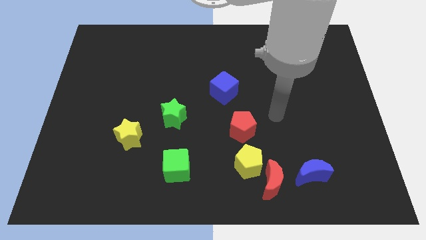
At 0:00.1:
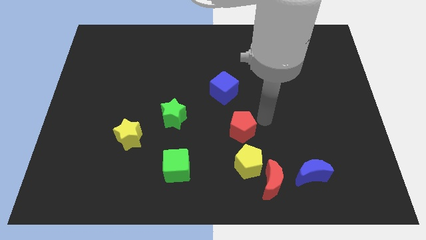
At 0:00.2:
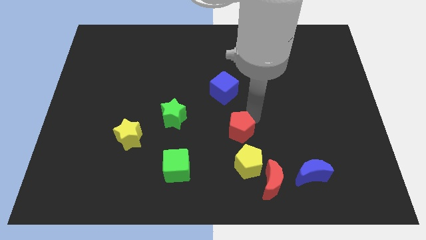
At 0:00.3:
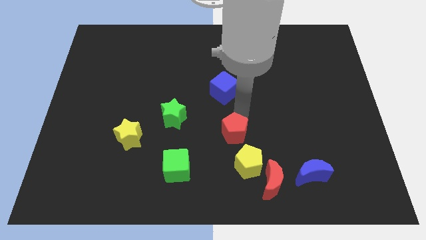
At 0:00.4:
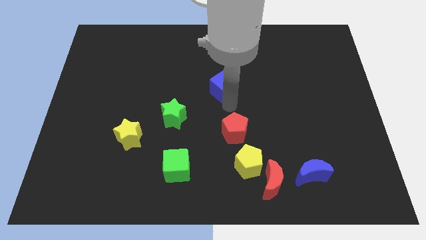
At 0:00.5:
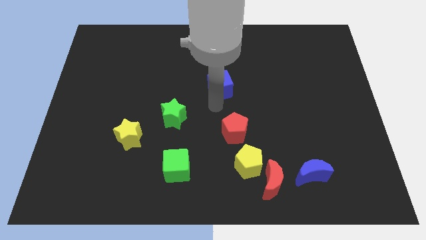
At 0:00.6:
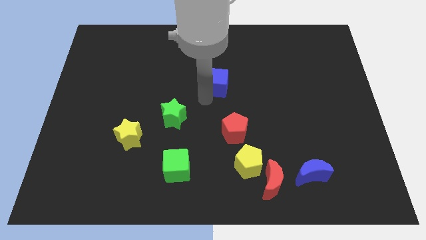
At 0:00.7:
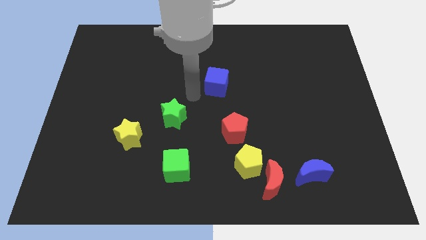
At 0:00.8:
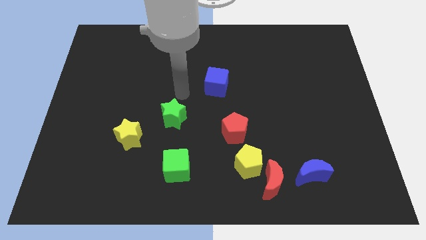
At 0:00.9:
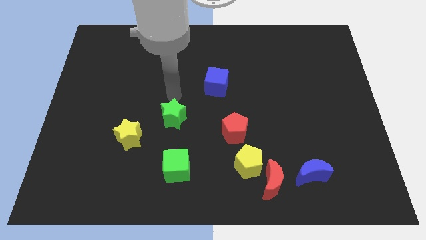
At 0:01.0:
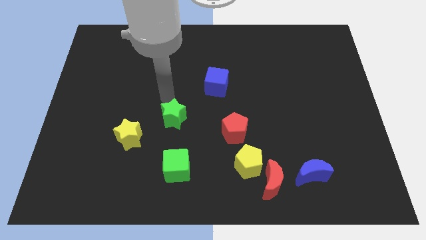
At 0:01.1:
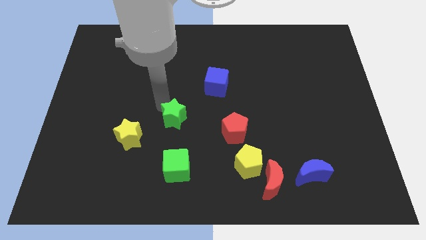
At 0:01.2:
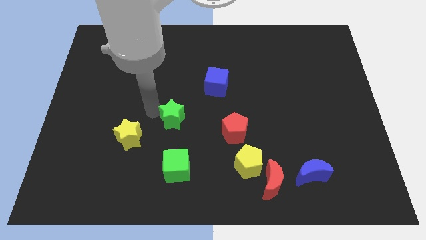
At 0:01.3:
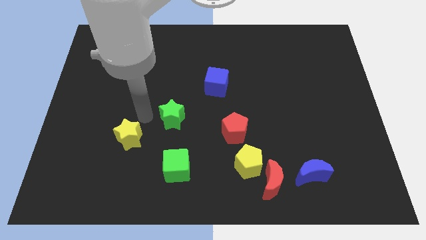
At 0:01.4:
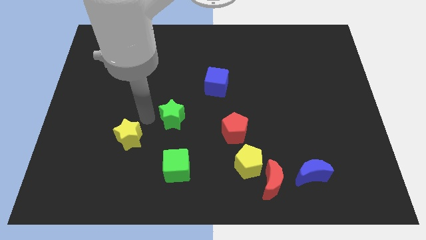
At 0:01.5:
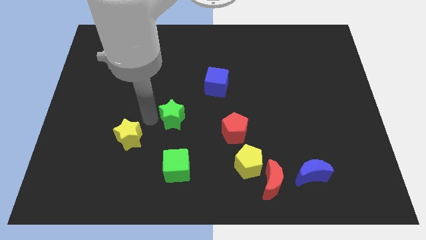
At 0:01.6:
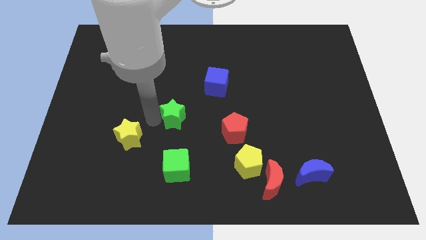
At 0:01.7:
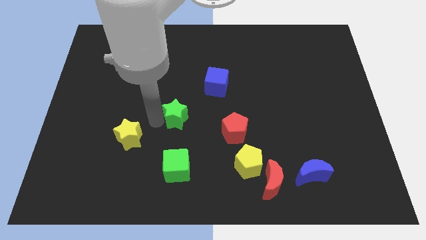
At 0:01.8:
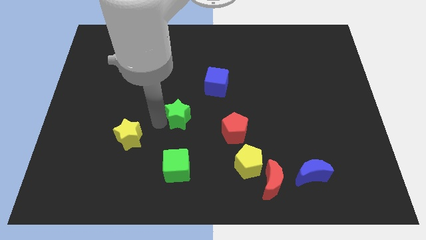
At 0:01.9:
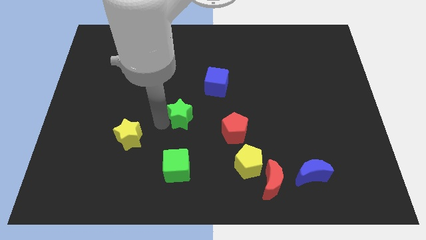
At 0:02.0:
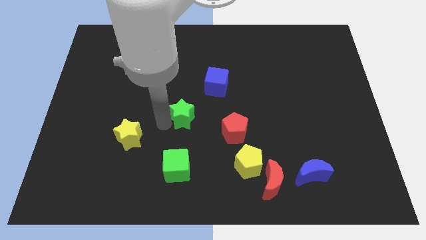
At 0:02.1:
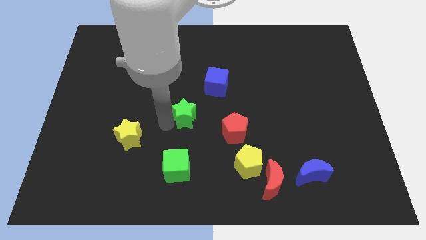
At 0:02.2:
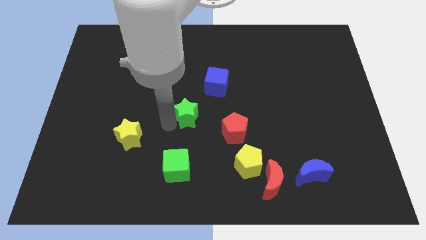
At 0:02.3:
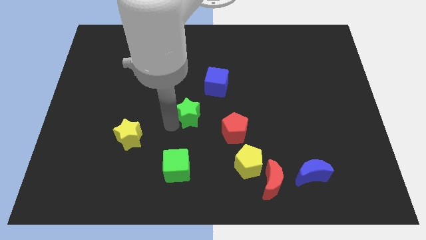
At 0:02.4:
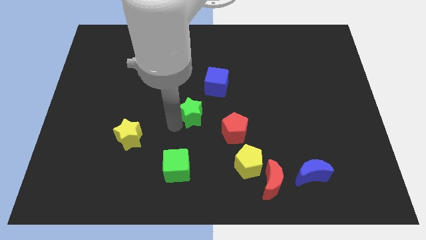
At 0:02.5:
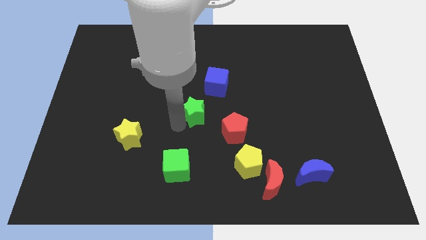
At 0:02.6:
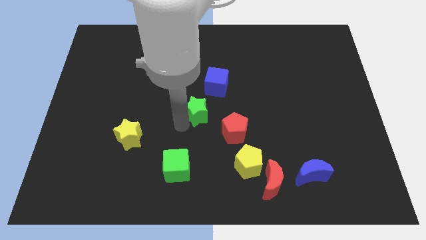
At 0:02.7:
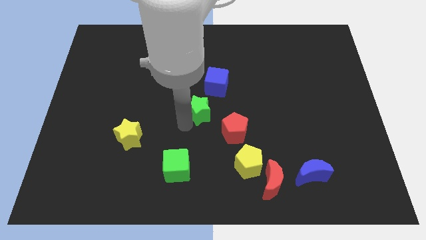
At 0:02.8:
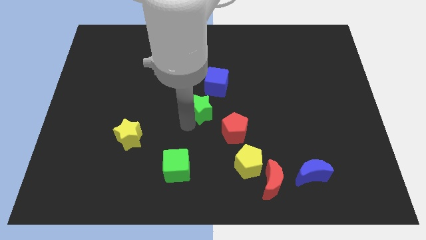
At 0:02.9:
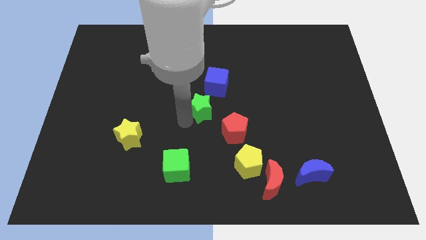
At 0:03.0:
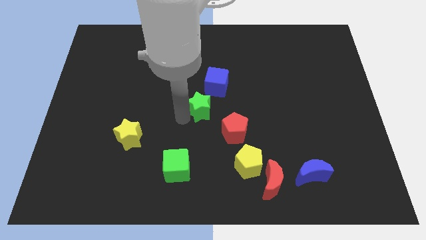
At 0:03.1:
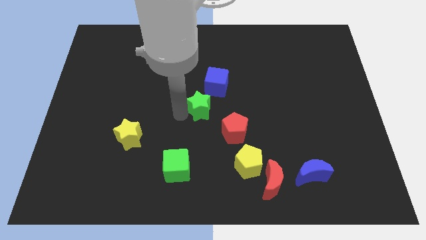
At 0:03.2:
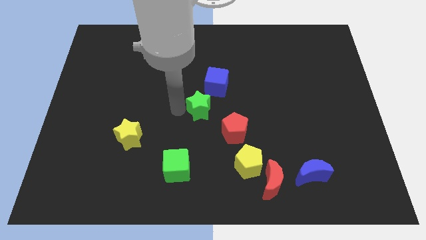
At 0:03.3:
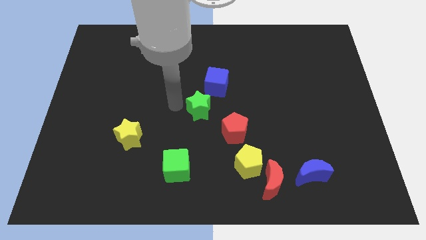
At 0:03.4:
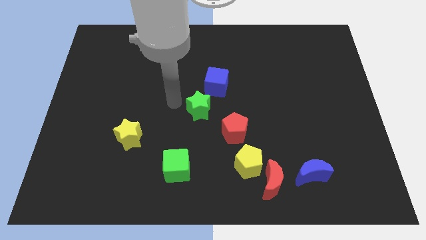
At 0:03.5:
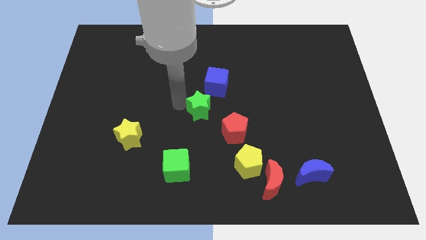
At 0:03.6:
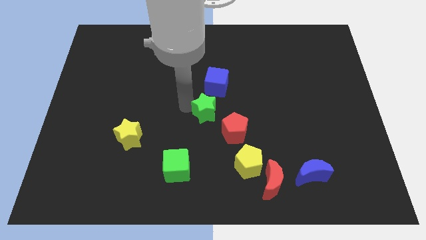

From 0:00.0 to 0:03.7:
push the green star to the right a bit

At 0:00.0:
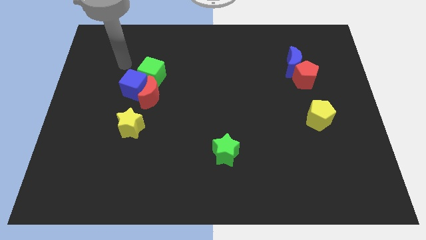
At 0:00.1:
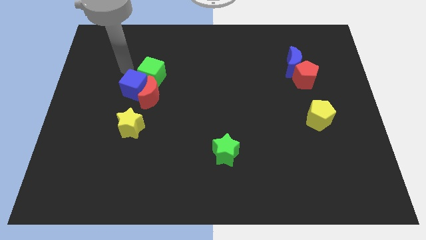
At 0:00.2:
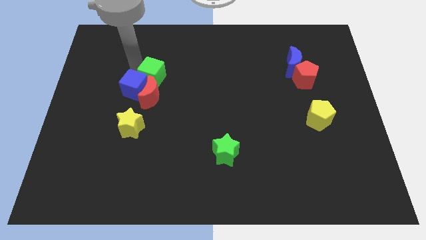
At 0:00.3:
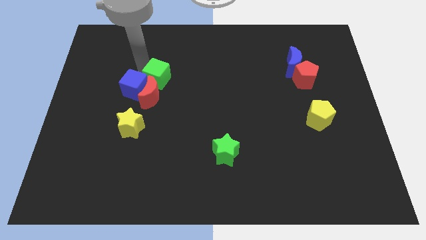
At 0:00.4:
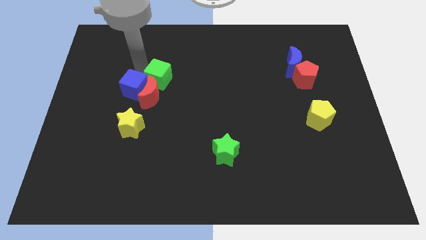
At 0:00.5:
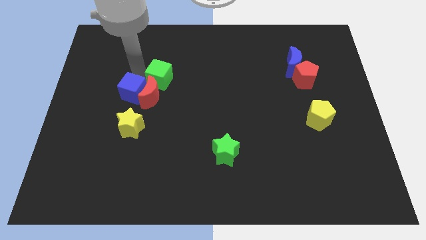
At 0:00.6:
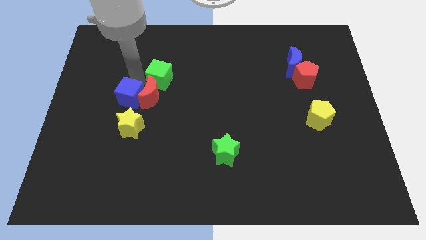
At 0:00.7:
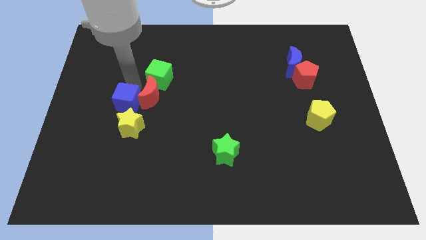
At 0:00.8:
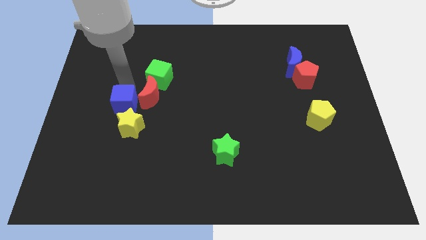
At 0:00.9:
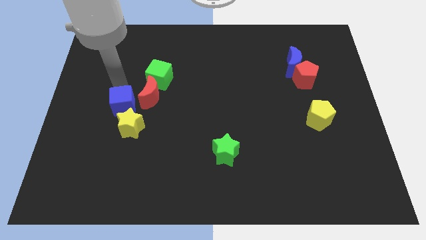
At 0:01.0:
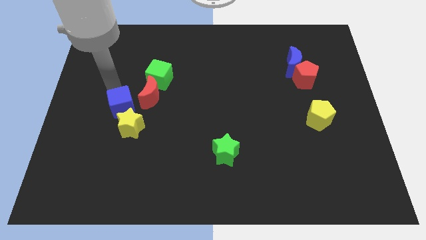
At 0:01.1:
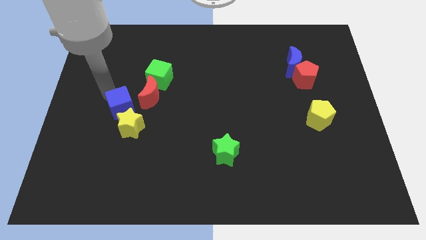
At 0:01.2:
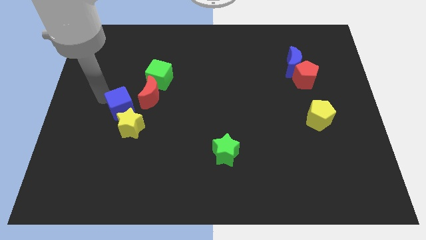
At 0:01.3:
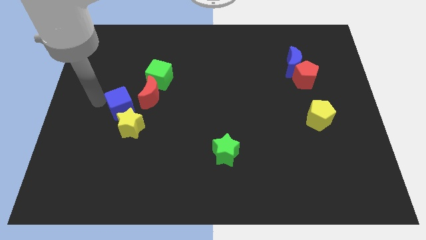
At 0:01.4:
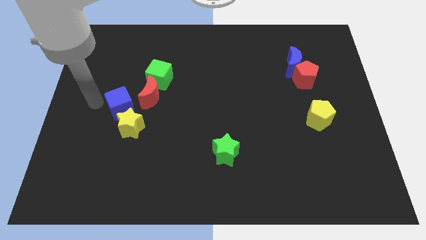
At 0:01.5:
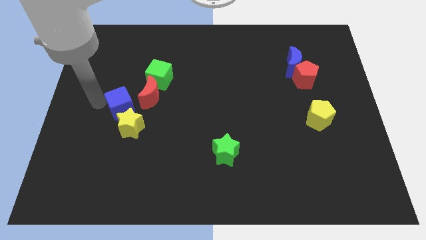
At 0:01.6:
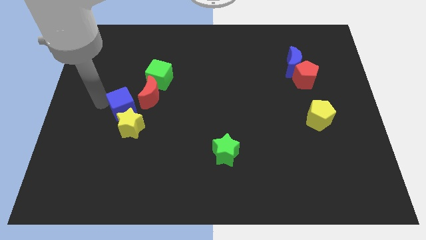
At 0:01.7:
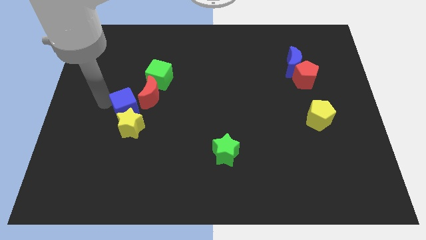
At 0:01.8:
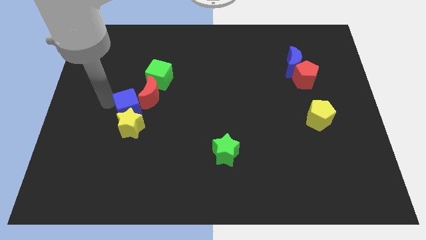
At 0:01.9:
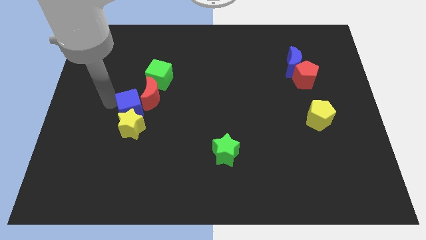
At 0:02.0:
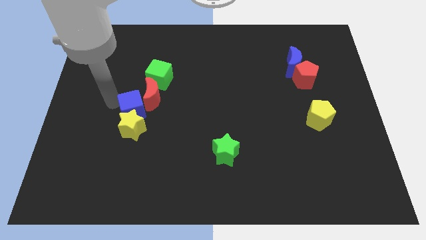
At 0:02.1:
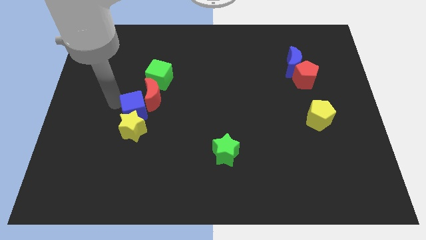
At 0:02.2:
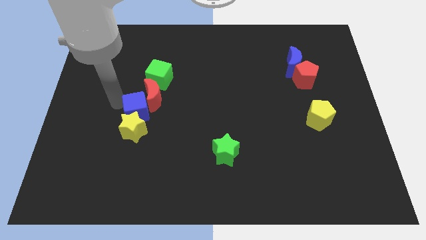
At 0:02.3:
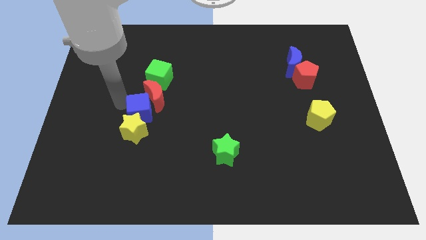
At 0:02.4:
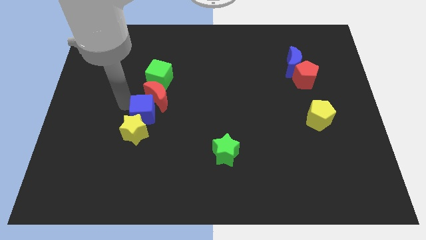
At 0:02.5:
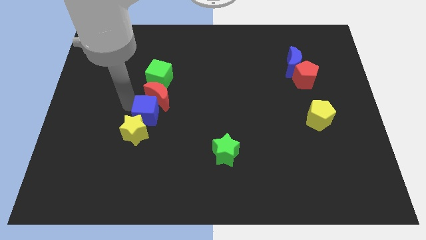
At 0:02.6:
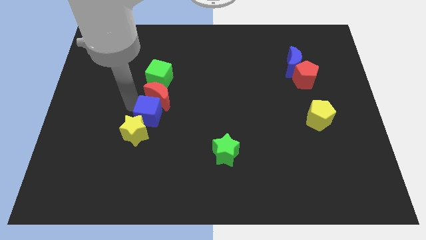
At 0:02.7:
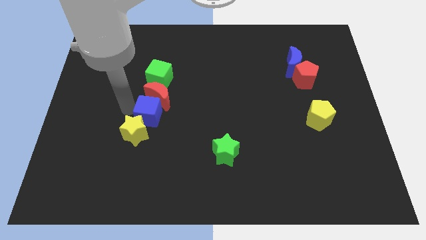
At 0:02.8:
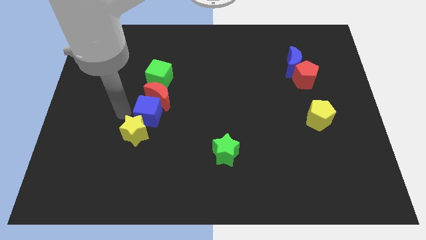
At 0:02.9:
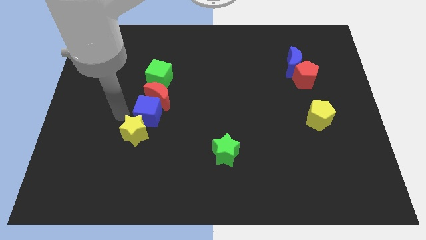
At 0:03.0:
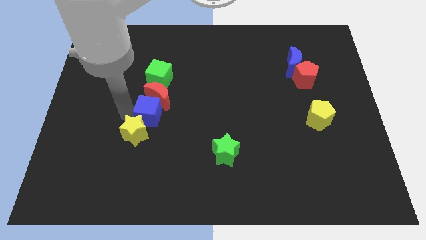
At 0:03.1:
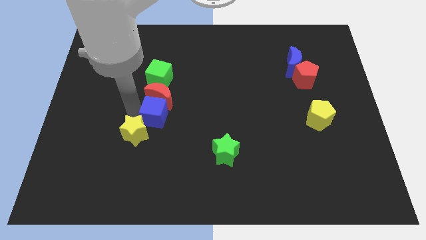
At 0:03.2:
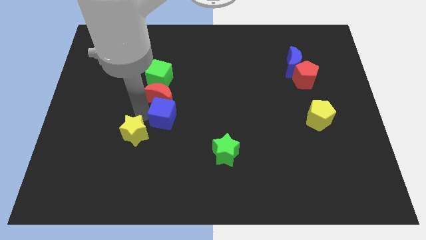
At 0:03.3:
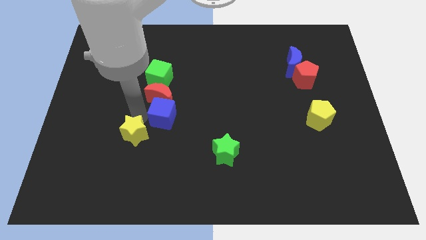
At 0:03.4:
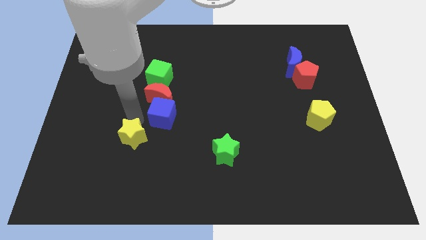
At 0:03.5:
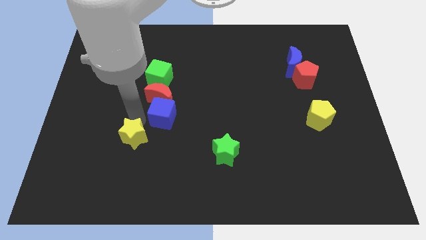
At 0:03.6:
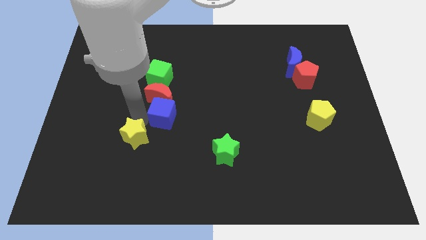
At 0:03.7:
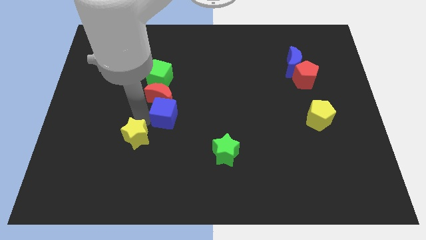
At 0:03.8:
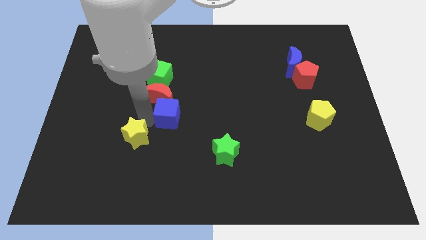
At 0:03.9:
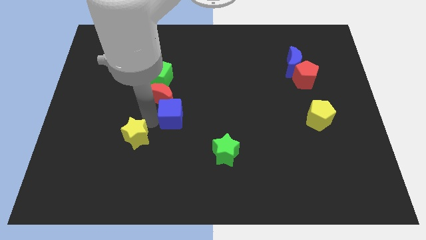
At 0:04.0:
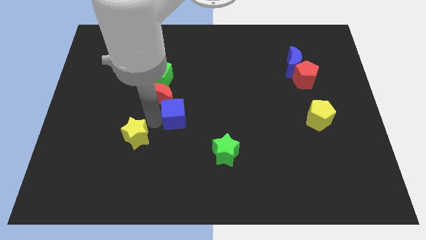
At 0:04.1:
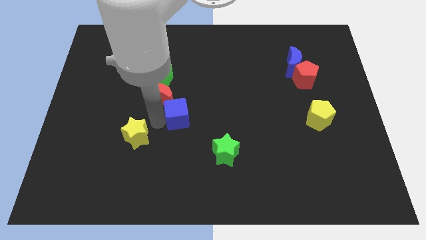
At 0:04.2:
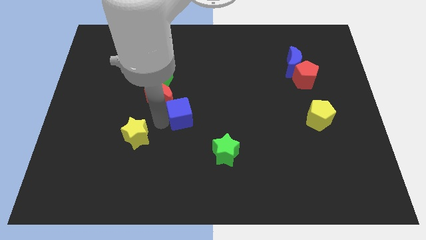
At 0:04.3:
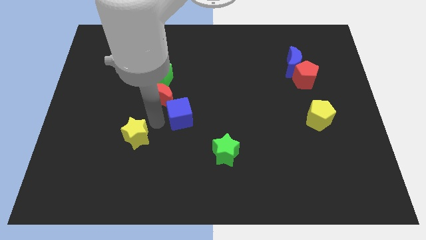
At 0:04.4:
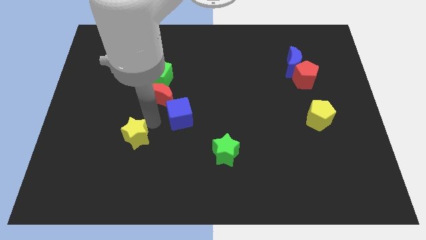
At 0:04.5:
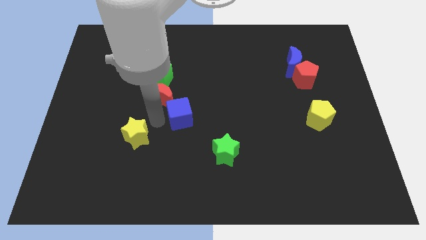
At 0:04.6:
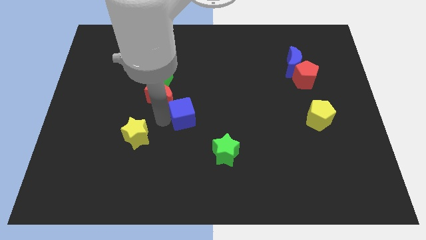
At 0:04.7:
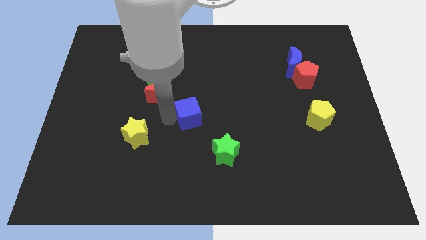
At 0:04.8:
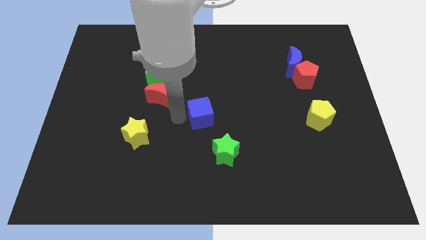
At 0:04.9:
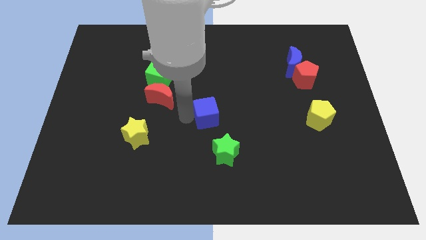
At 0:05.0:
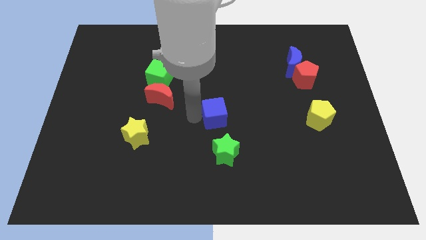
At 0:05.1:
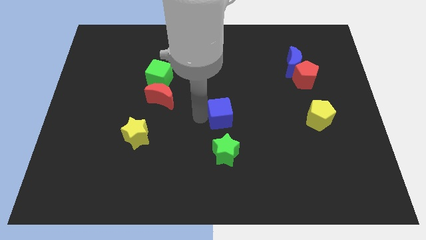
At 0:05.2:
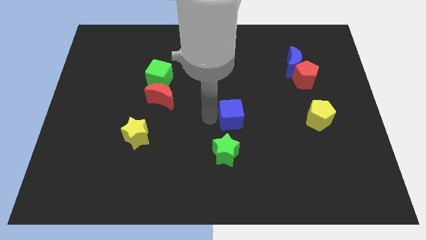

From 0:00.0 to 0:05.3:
move the blue cube to the right
